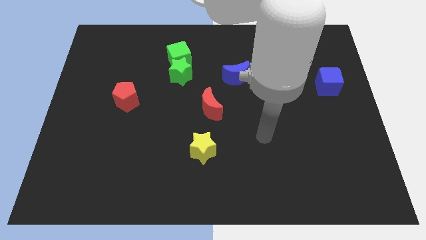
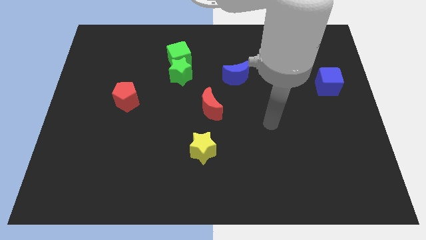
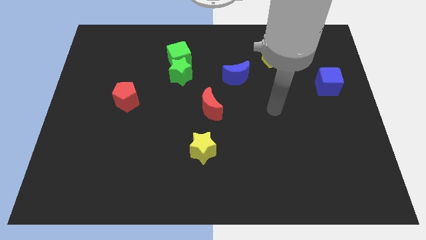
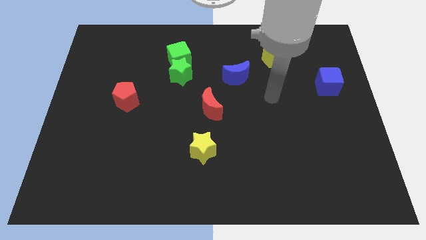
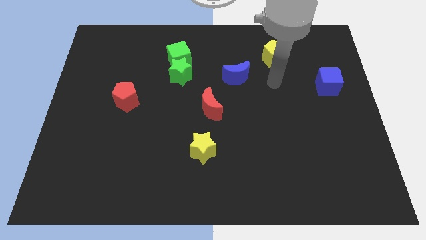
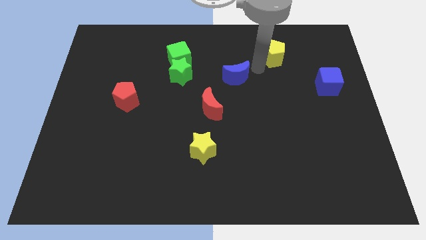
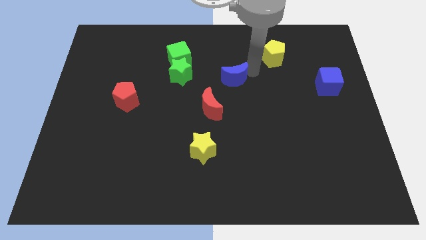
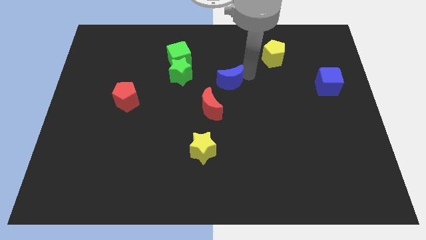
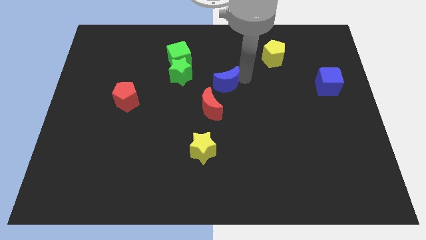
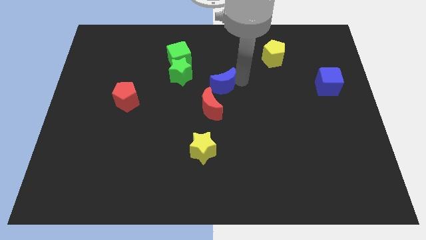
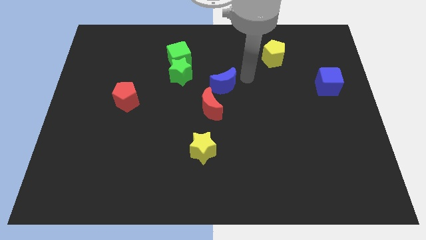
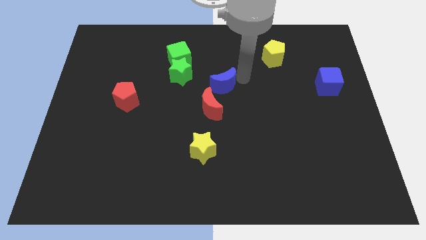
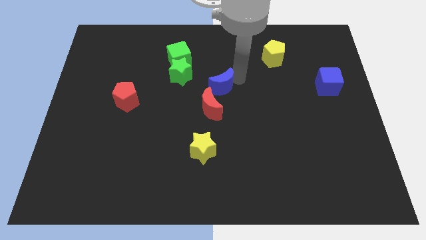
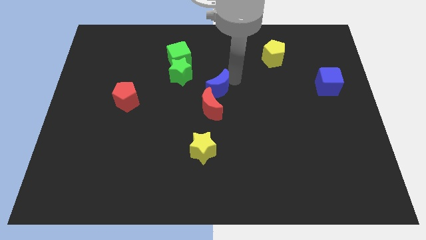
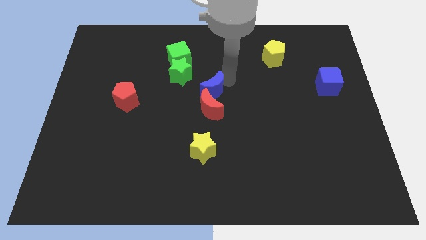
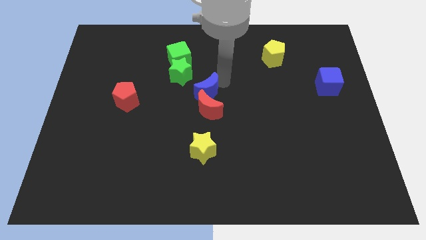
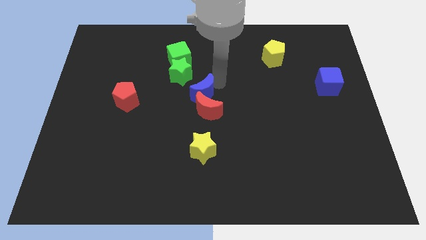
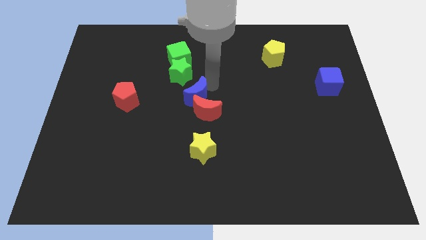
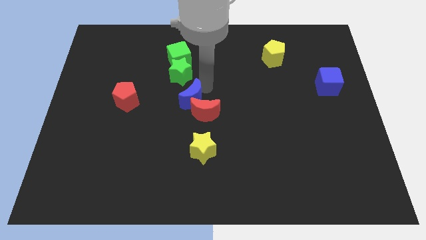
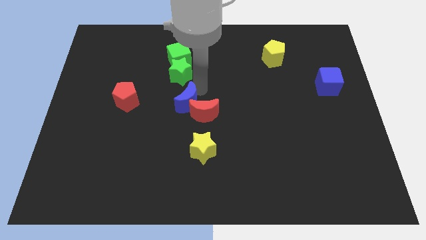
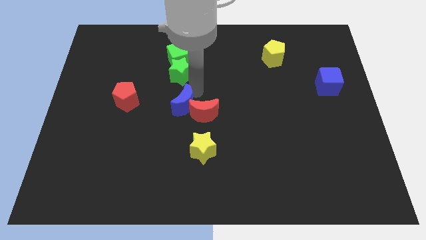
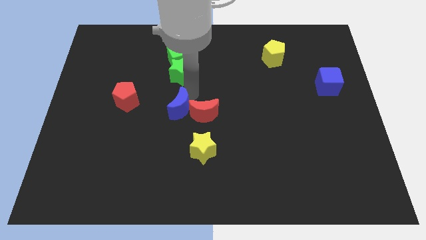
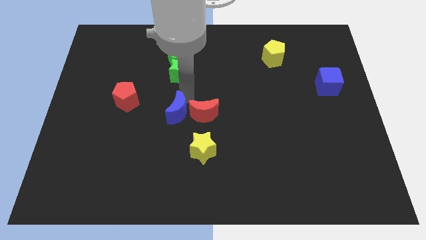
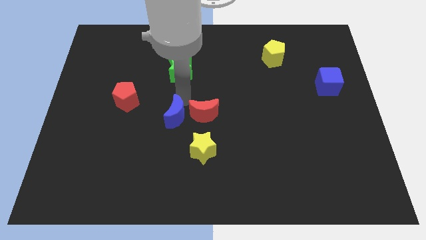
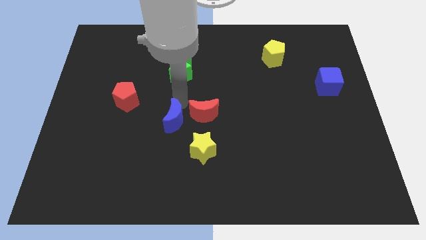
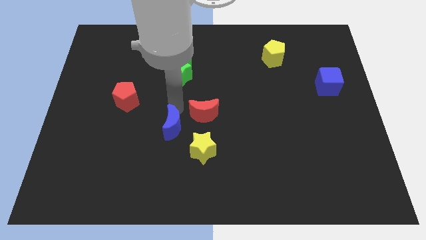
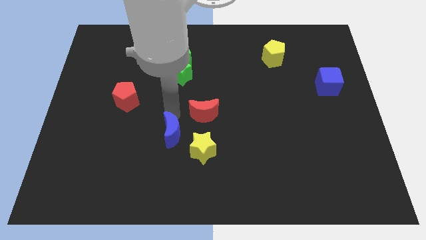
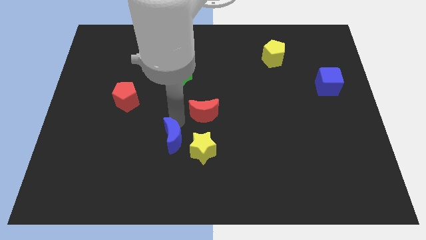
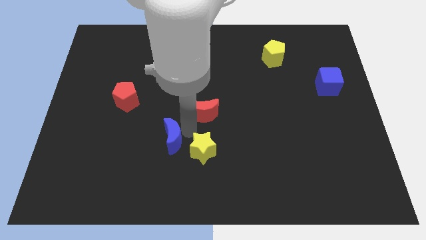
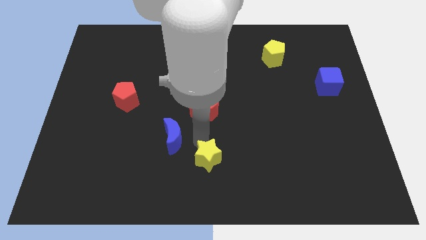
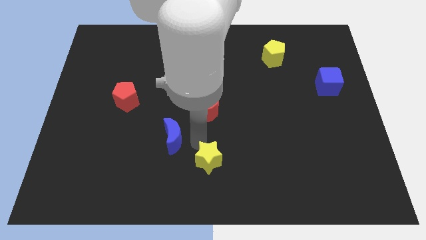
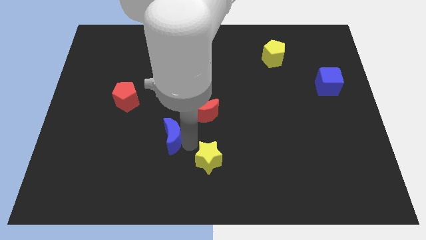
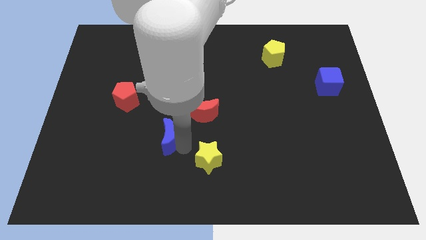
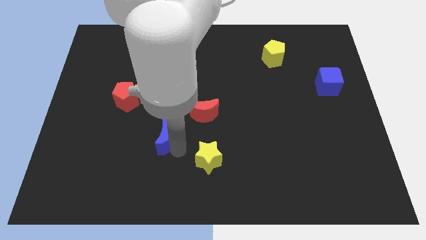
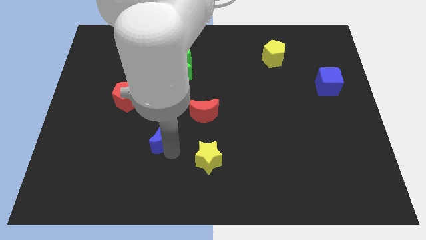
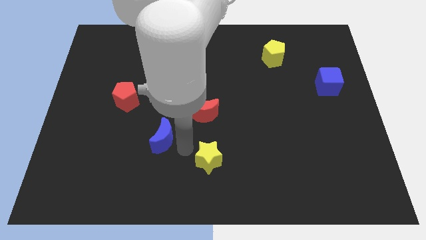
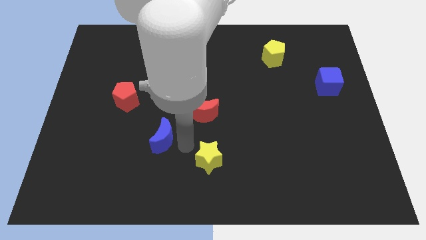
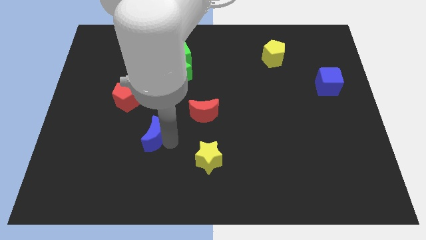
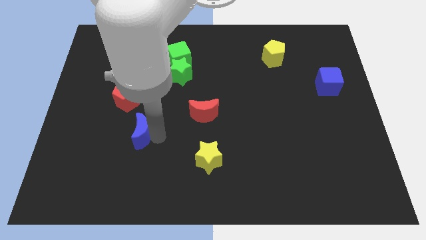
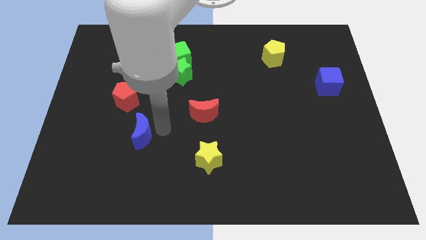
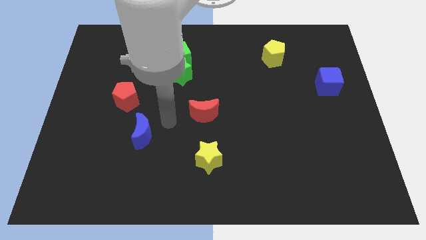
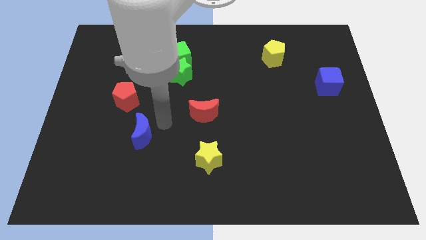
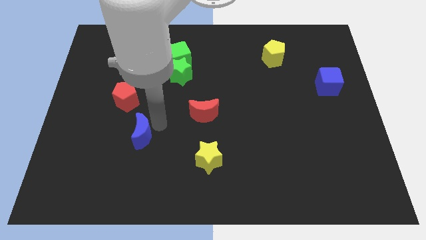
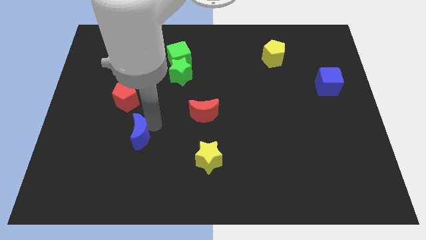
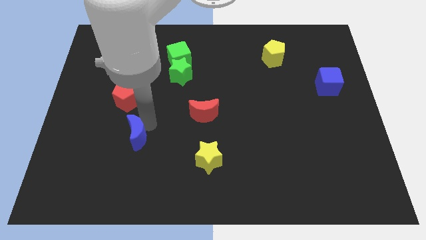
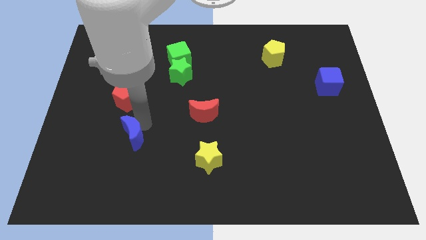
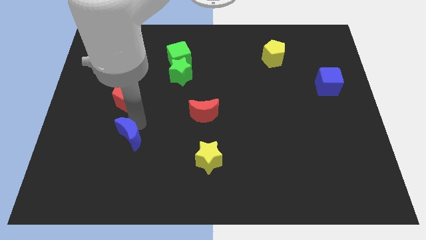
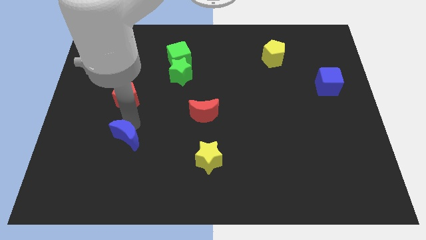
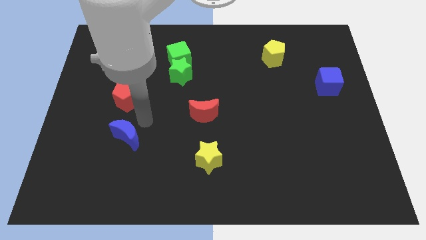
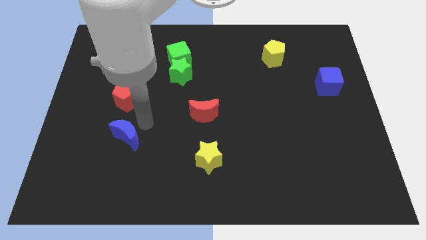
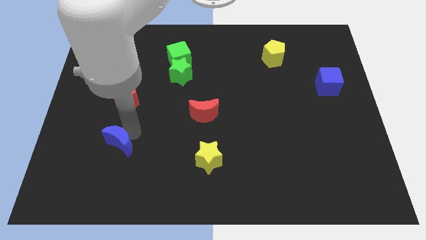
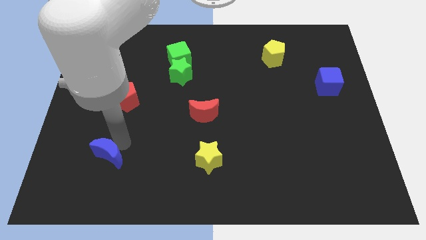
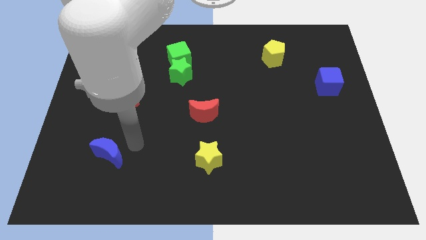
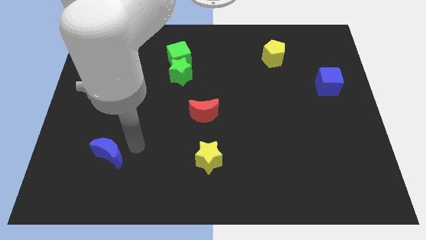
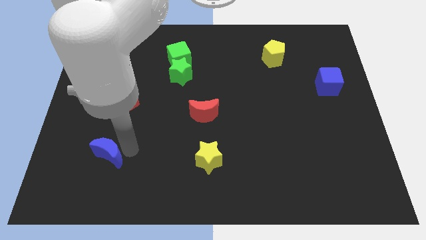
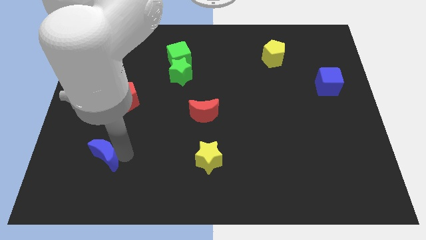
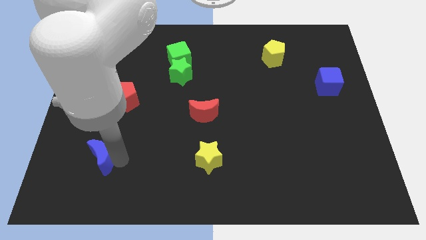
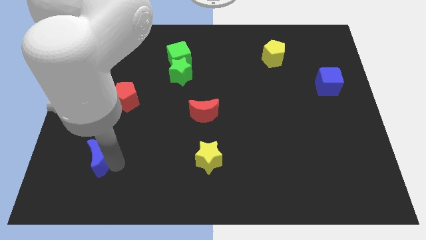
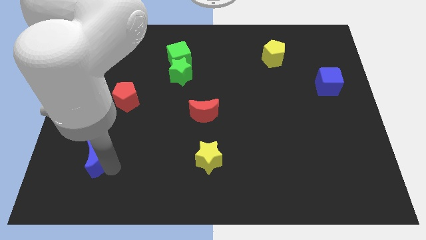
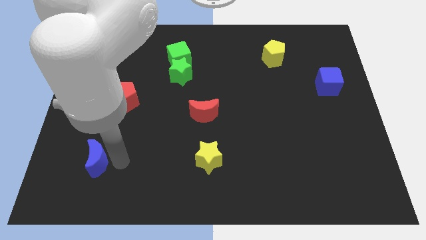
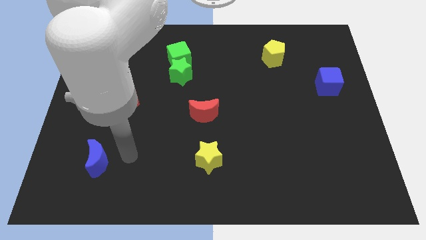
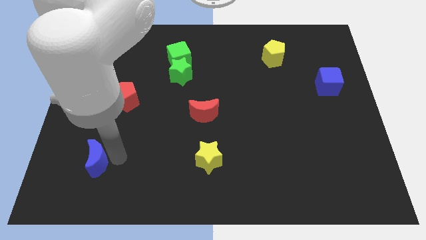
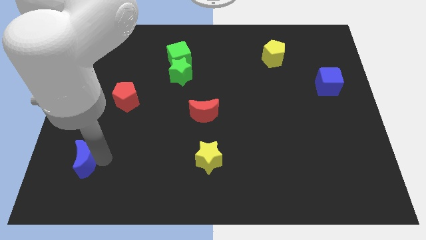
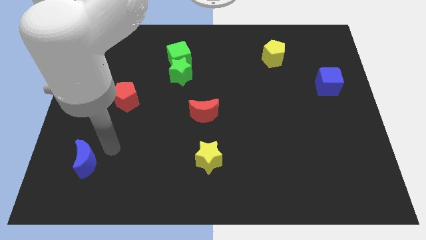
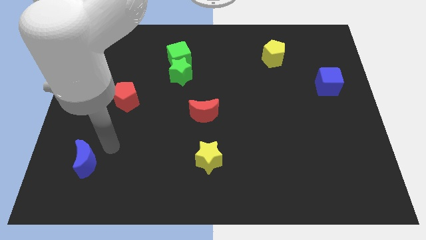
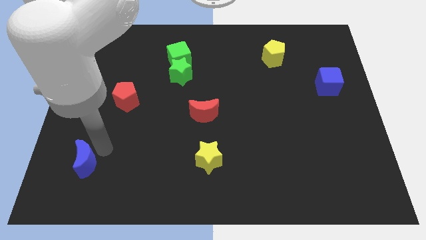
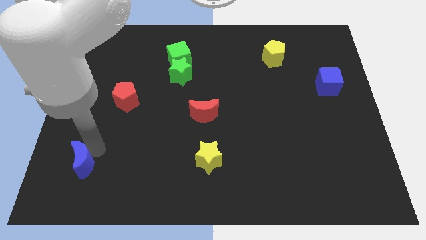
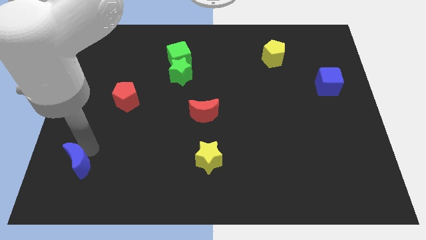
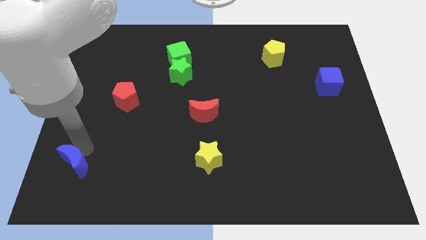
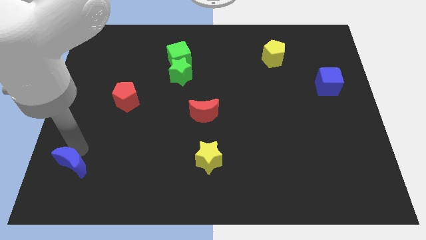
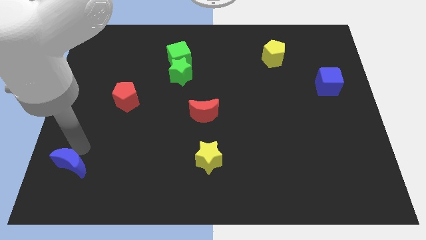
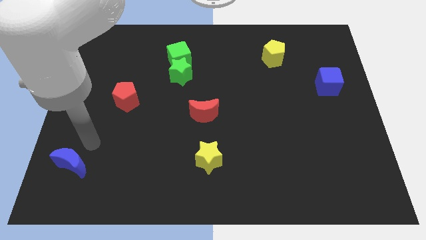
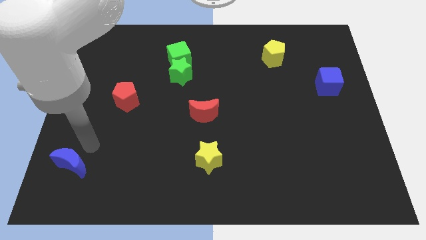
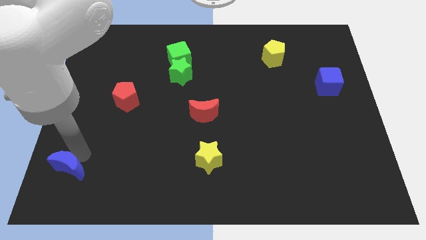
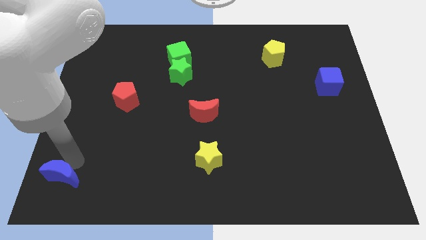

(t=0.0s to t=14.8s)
put the blue moon to the bottom left of the board
